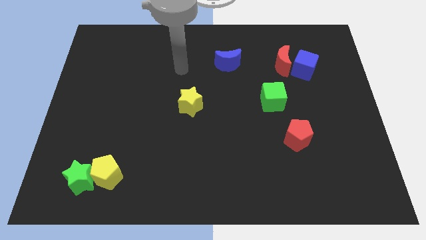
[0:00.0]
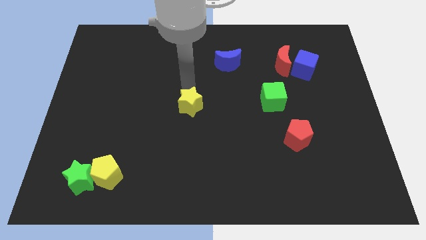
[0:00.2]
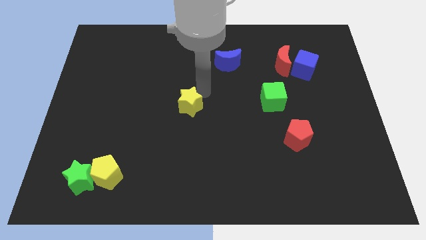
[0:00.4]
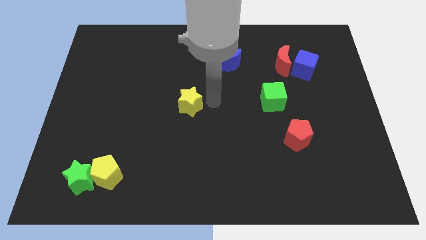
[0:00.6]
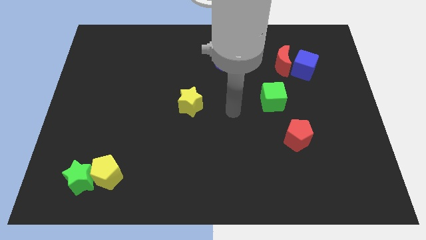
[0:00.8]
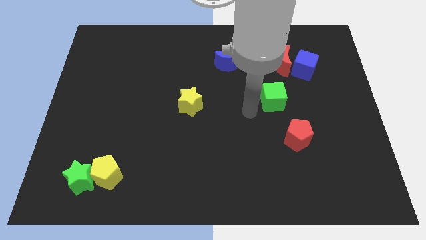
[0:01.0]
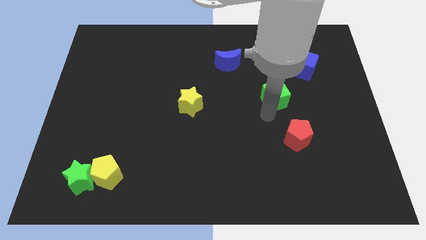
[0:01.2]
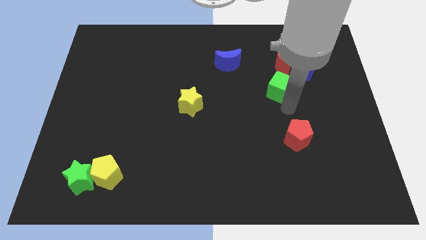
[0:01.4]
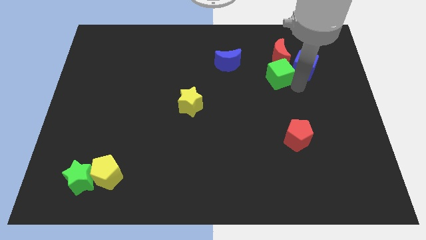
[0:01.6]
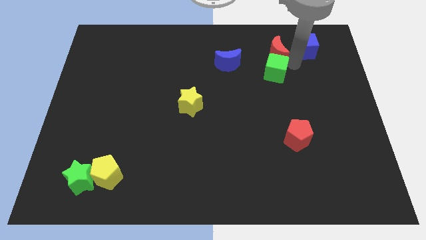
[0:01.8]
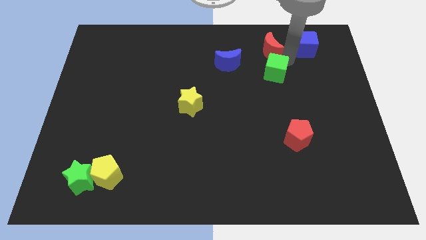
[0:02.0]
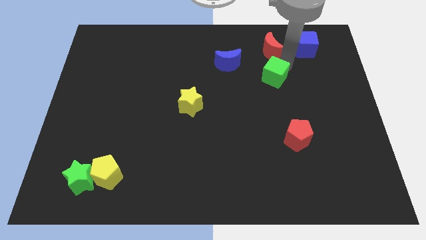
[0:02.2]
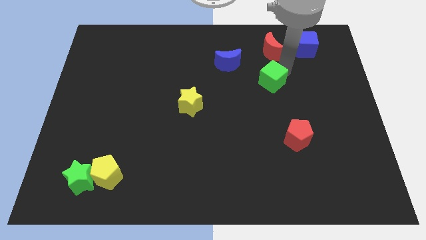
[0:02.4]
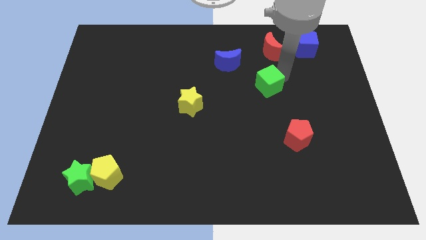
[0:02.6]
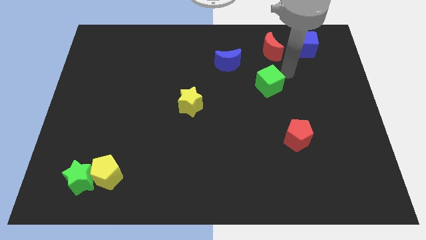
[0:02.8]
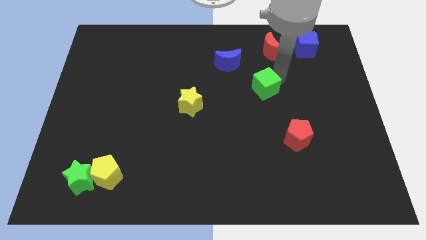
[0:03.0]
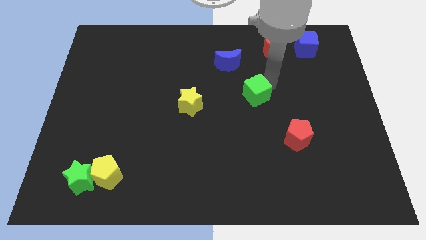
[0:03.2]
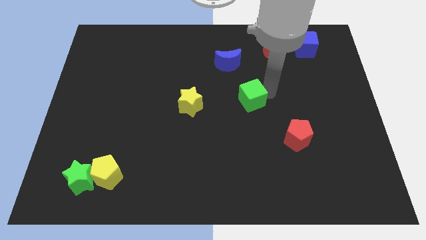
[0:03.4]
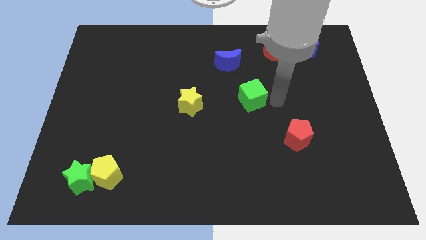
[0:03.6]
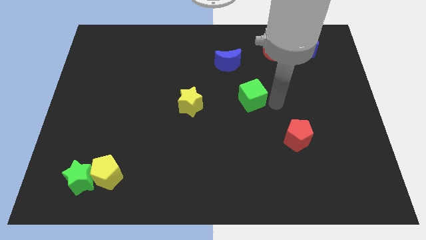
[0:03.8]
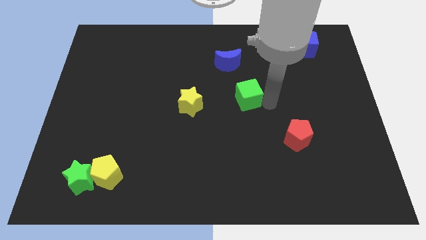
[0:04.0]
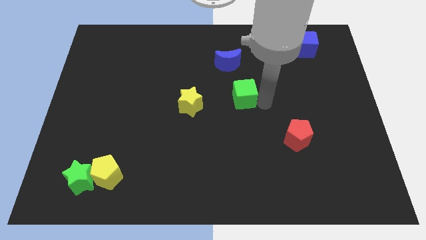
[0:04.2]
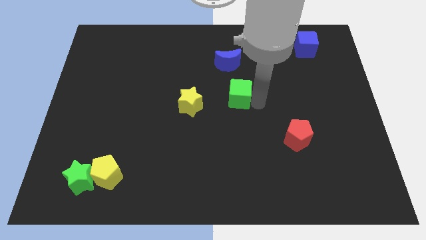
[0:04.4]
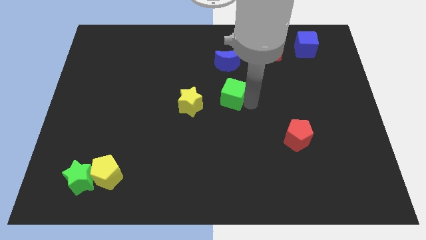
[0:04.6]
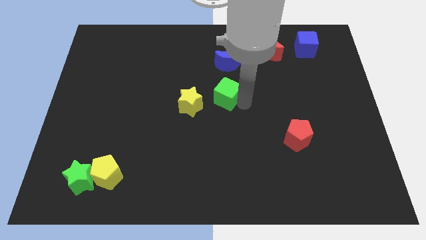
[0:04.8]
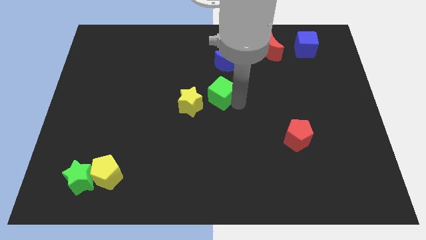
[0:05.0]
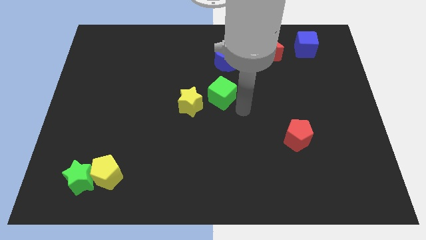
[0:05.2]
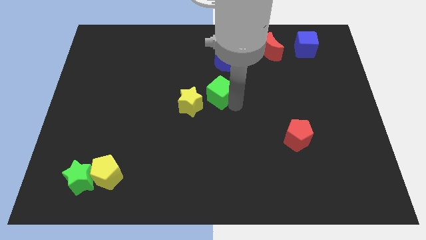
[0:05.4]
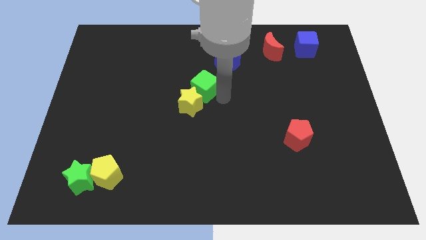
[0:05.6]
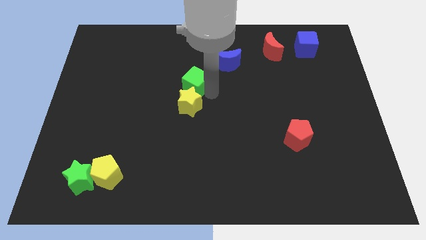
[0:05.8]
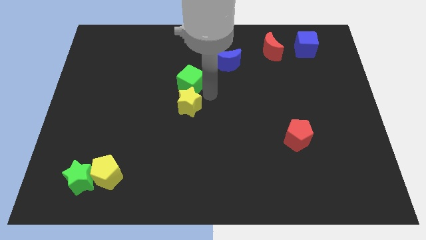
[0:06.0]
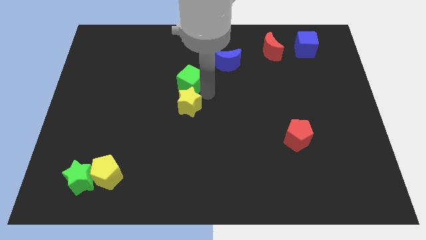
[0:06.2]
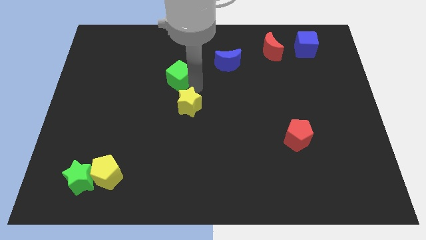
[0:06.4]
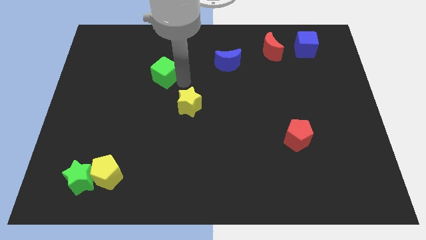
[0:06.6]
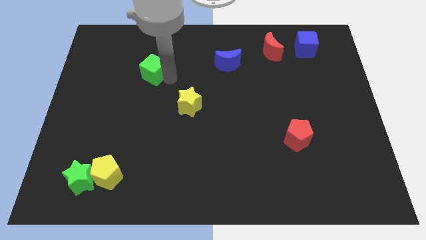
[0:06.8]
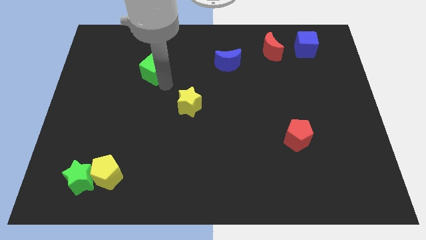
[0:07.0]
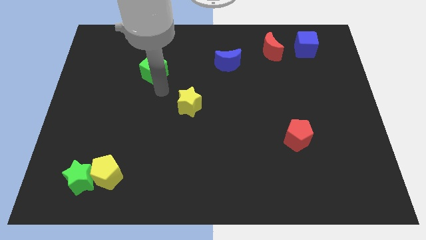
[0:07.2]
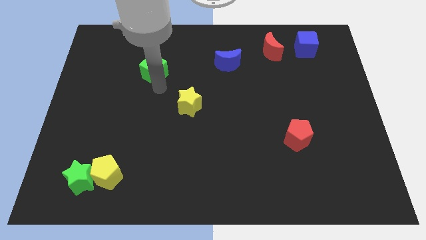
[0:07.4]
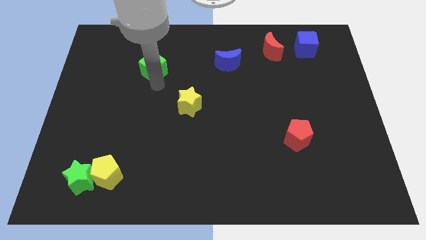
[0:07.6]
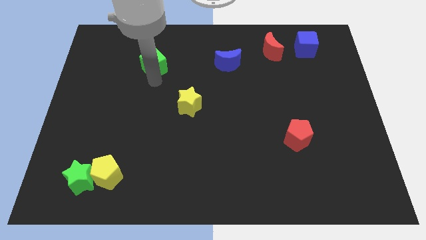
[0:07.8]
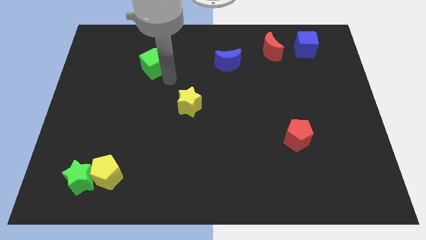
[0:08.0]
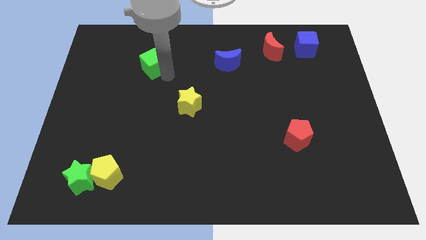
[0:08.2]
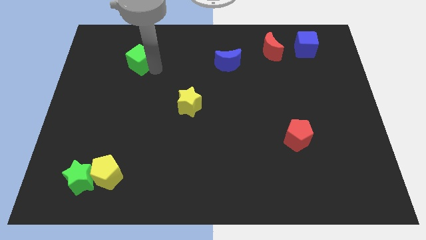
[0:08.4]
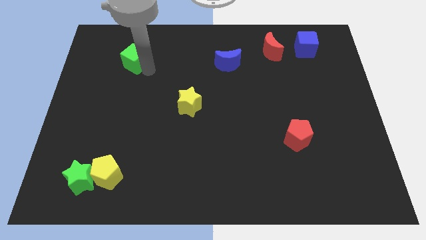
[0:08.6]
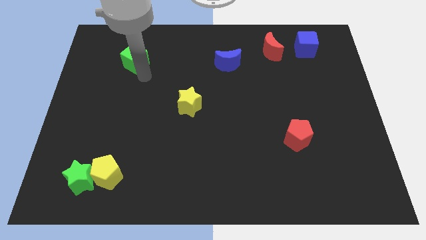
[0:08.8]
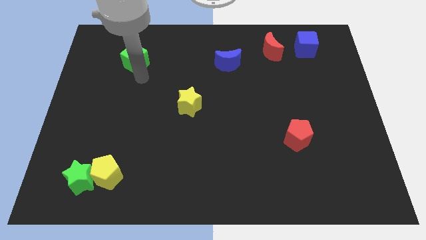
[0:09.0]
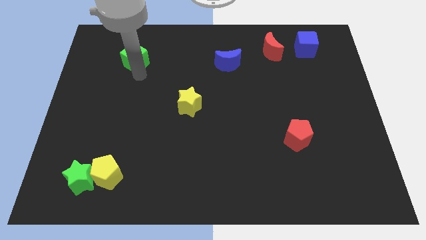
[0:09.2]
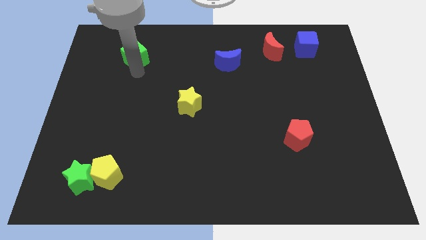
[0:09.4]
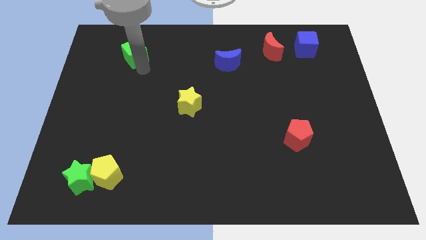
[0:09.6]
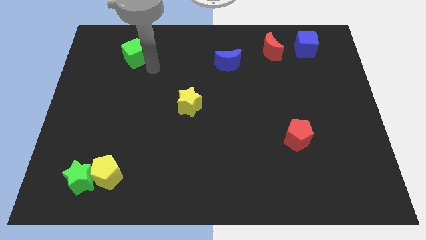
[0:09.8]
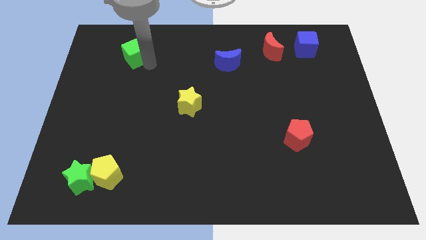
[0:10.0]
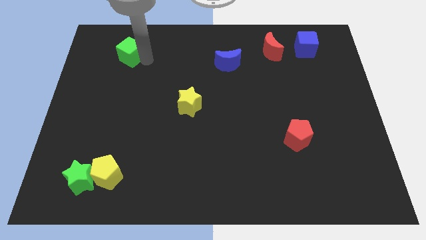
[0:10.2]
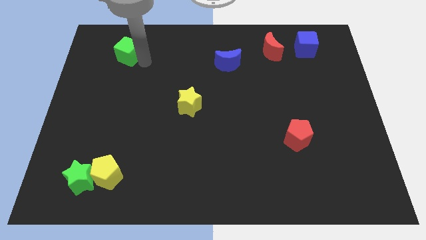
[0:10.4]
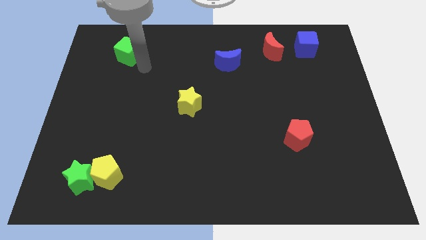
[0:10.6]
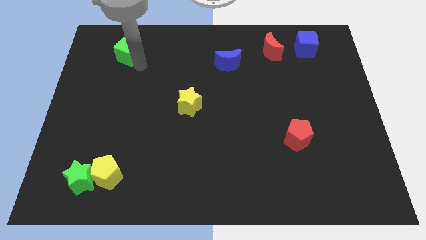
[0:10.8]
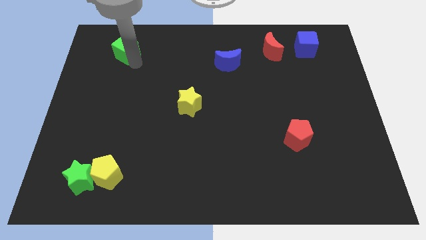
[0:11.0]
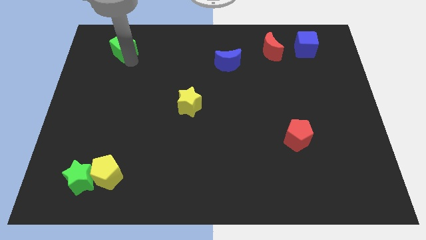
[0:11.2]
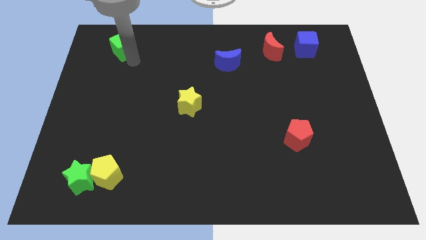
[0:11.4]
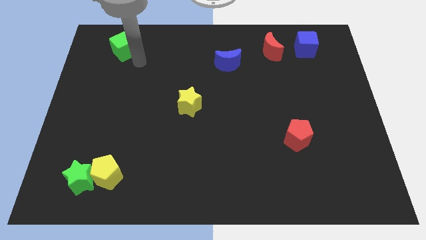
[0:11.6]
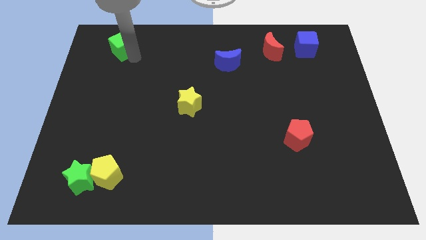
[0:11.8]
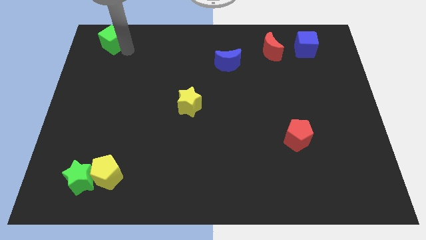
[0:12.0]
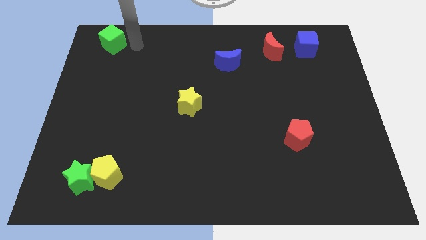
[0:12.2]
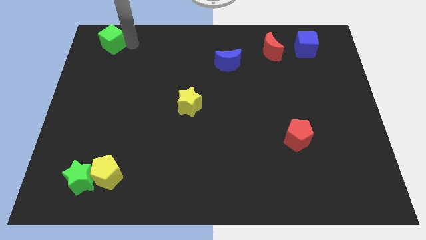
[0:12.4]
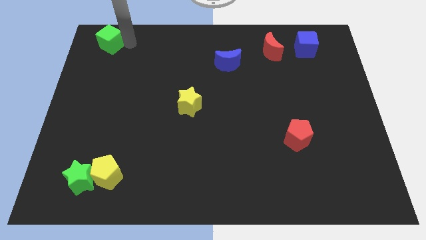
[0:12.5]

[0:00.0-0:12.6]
slide the green cube to the top left

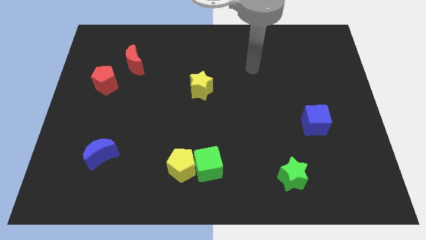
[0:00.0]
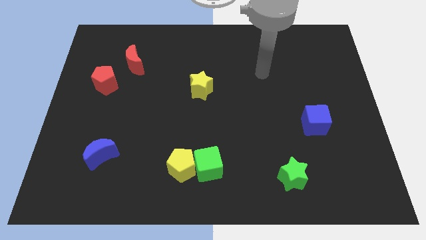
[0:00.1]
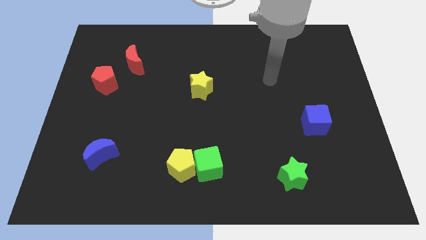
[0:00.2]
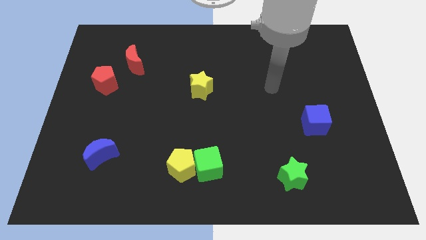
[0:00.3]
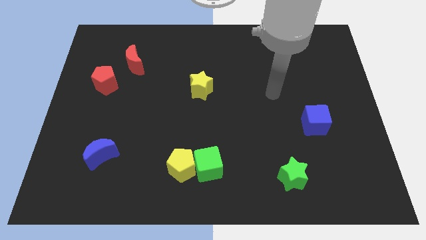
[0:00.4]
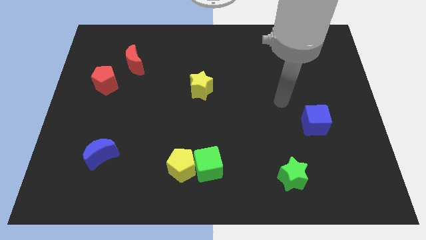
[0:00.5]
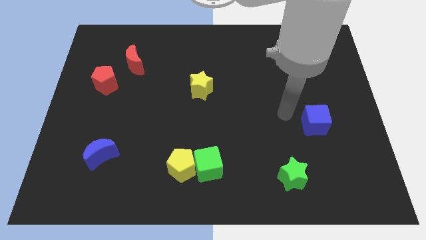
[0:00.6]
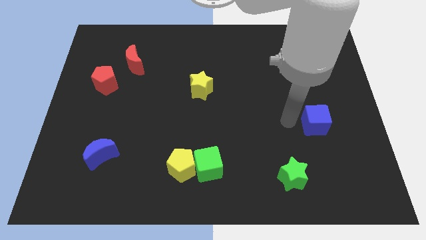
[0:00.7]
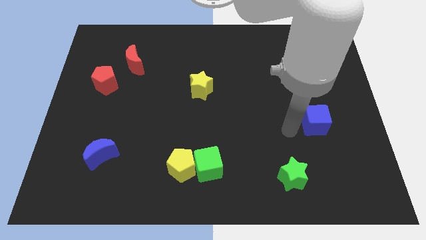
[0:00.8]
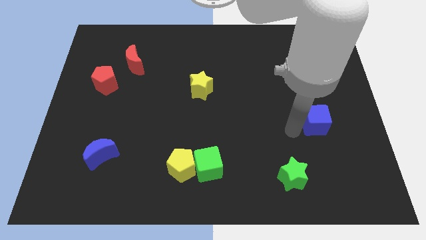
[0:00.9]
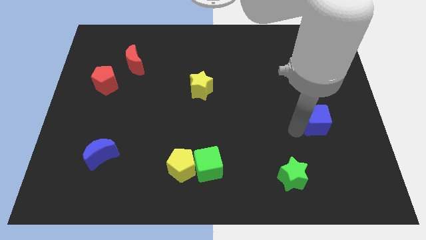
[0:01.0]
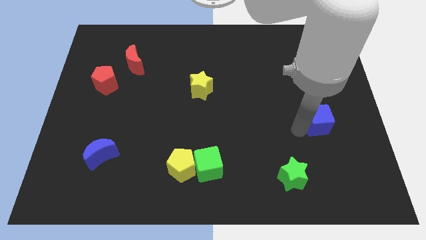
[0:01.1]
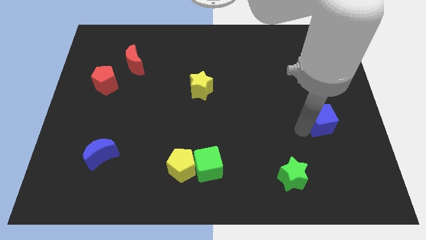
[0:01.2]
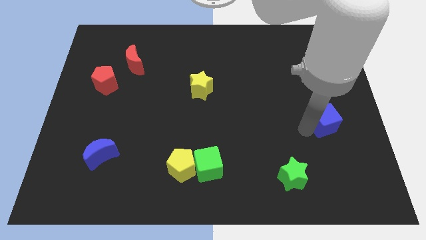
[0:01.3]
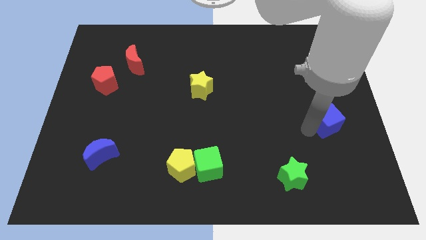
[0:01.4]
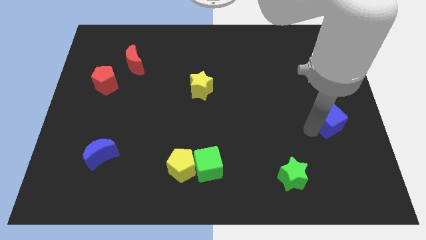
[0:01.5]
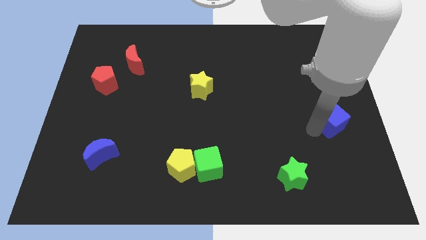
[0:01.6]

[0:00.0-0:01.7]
move the blue cube to the right side of the board
